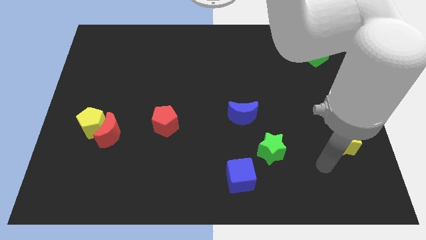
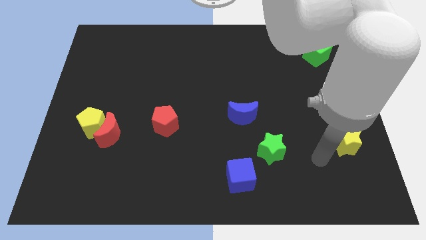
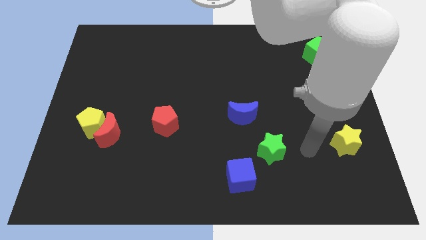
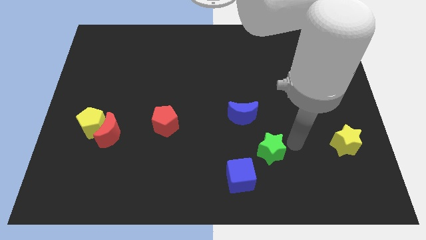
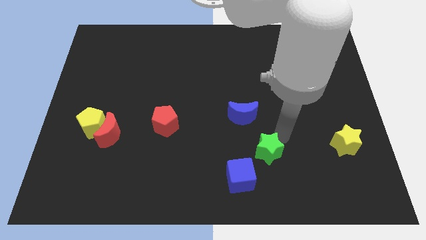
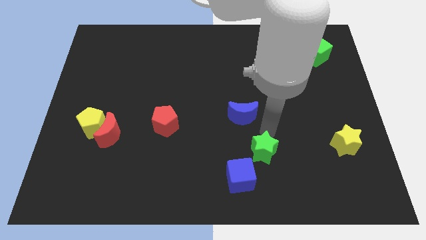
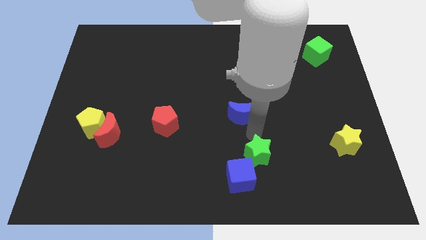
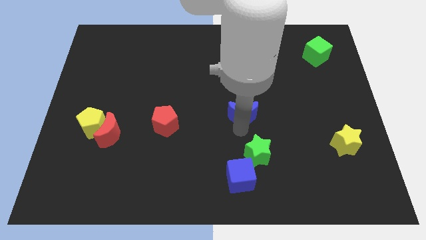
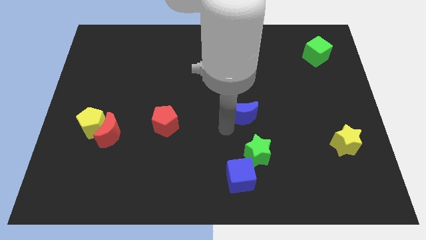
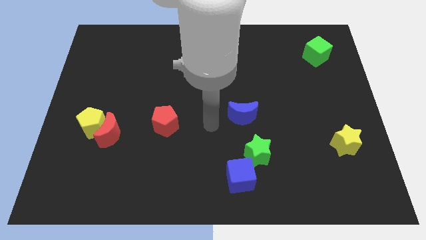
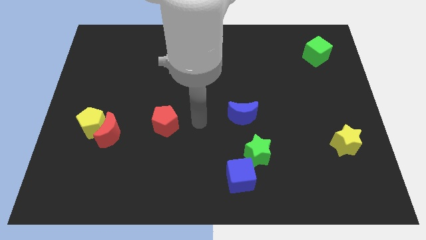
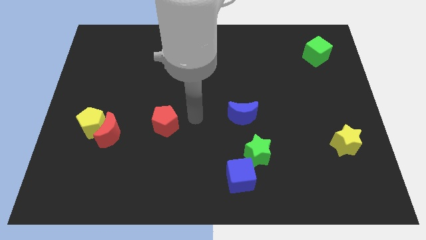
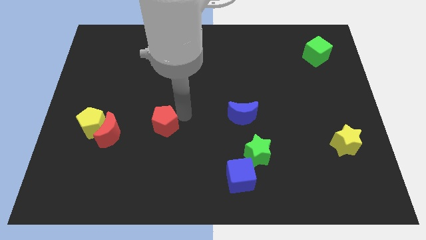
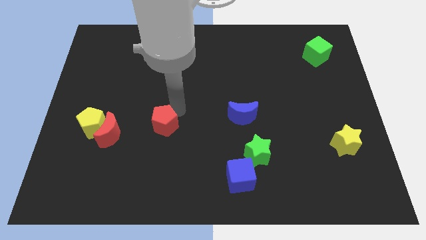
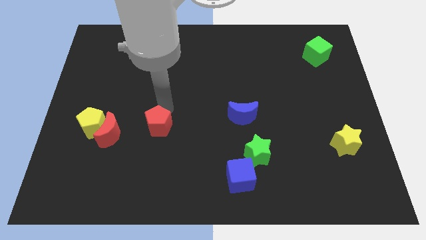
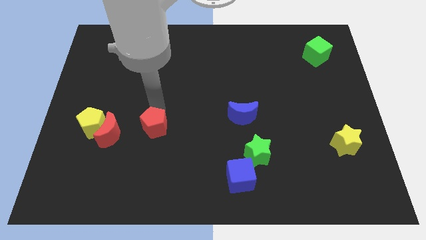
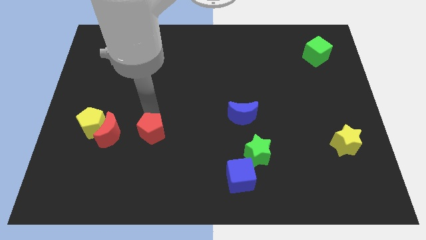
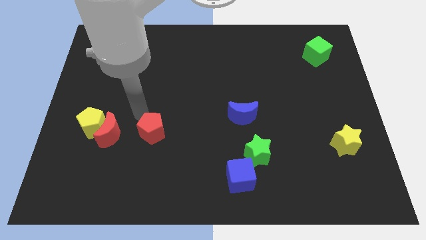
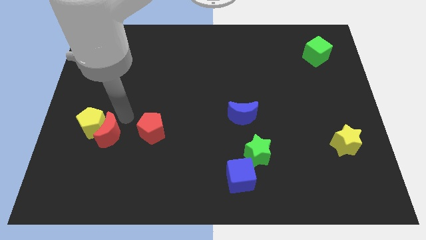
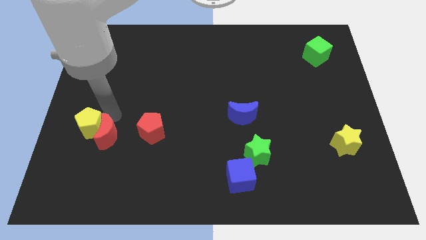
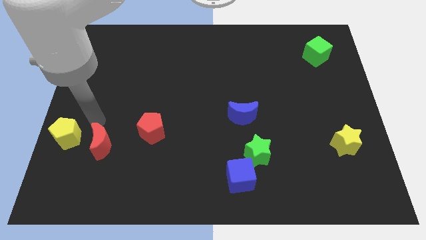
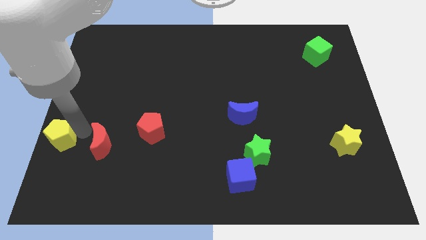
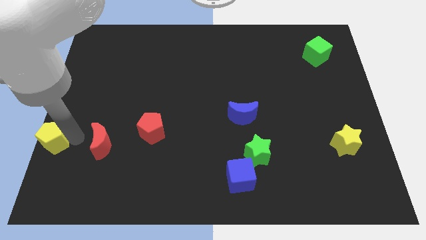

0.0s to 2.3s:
move the red moon away from the yellow pentagon

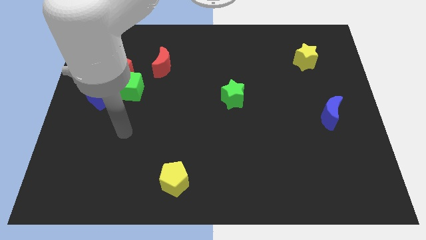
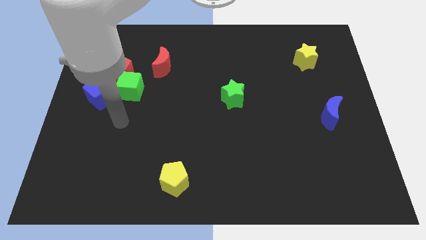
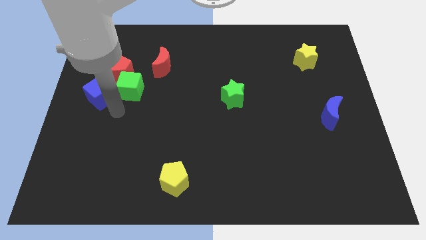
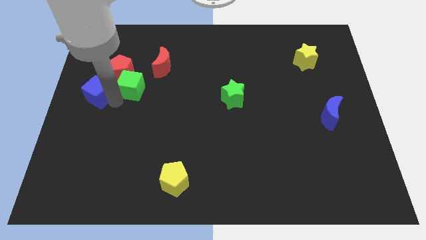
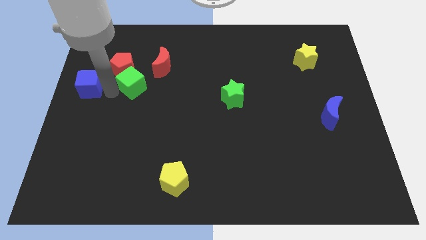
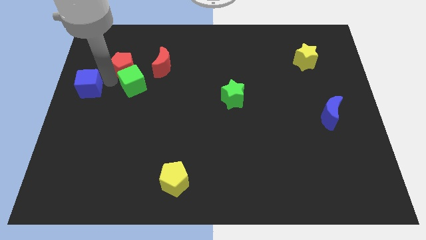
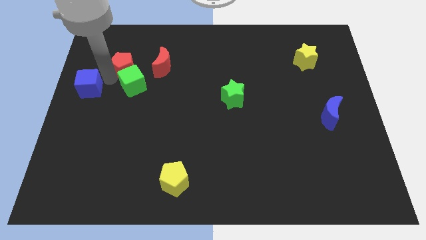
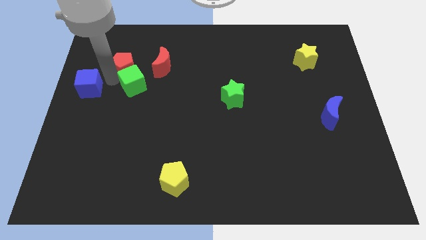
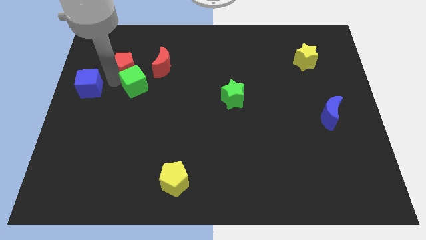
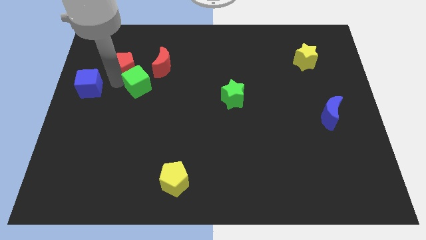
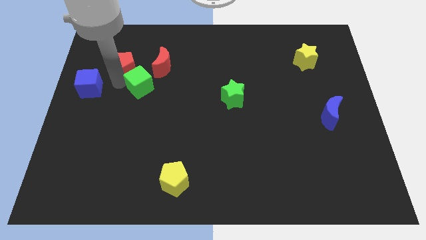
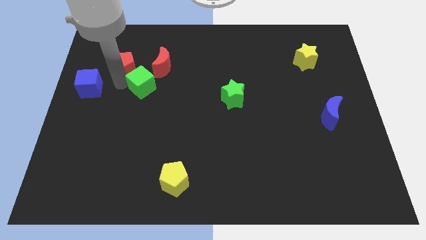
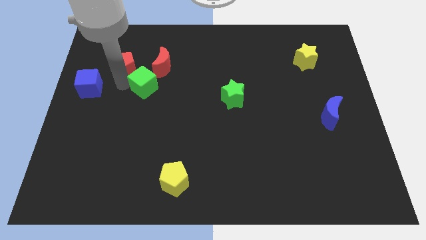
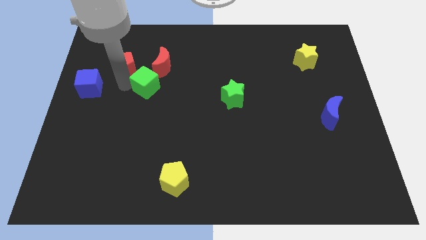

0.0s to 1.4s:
separate the green cube from the red pentagon and blue cube

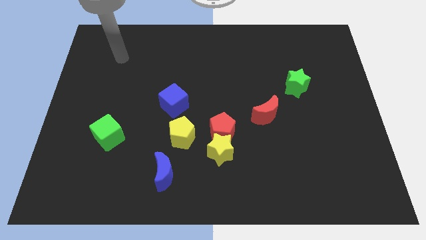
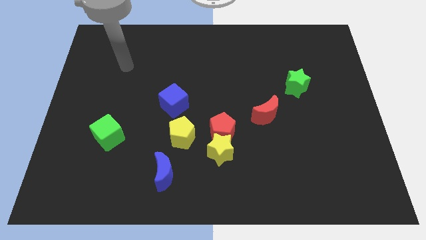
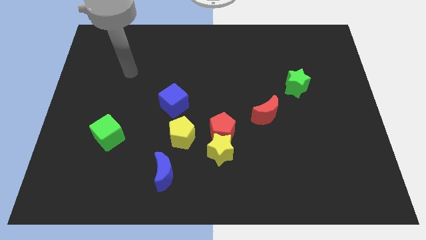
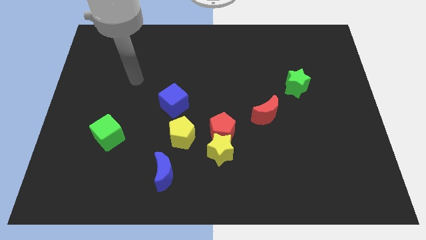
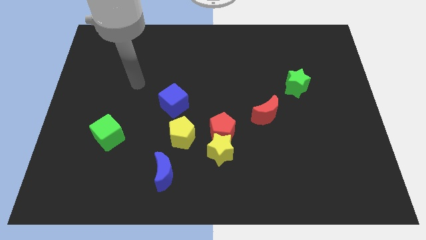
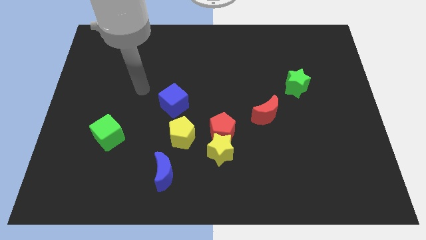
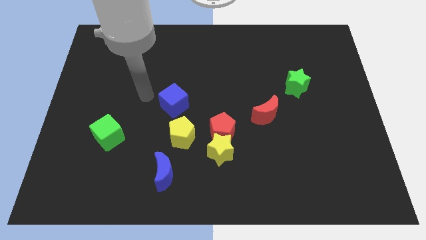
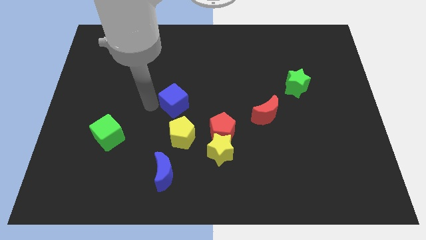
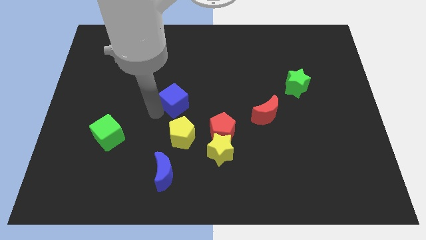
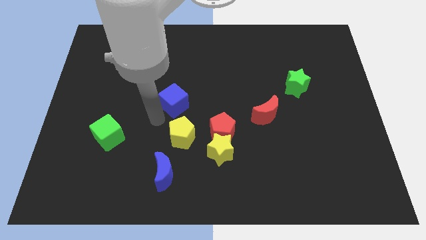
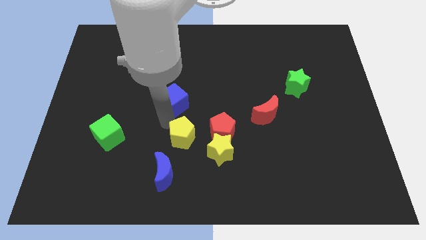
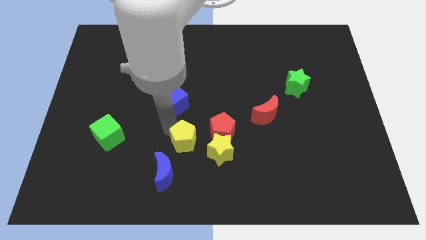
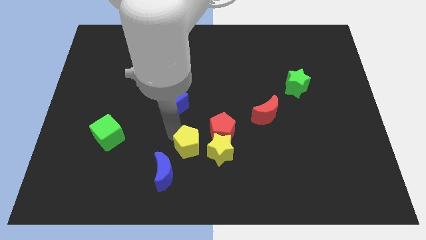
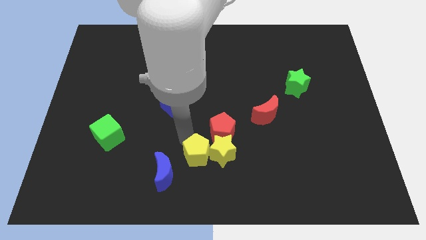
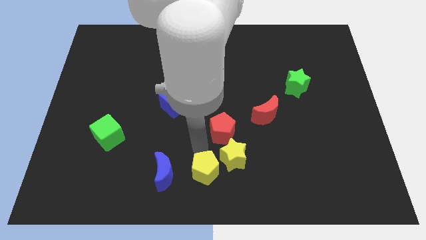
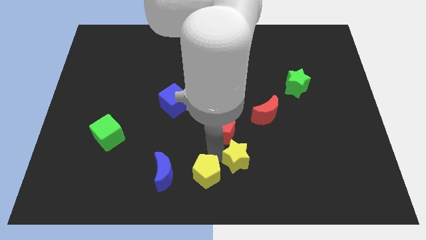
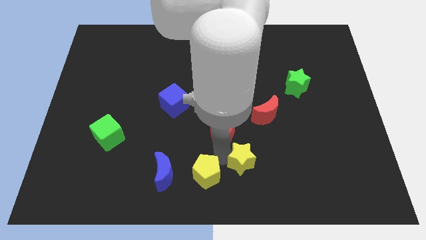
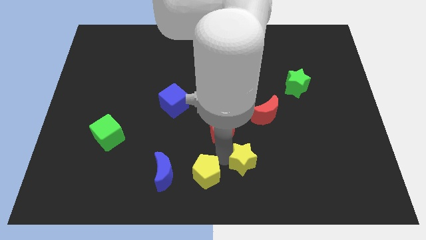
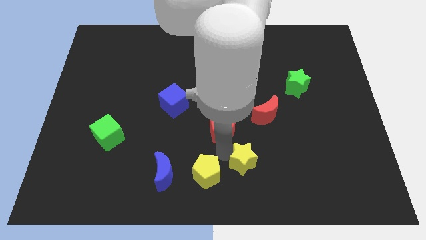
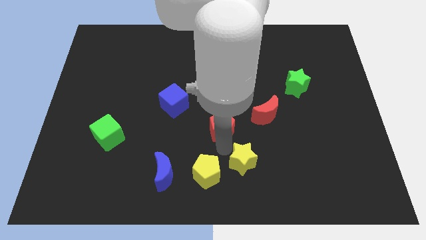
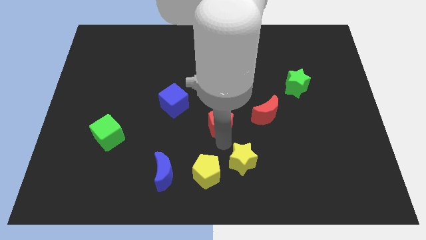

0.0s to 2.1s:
move the red pentagon away from the yellow star and yellow pentagon

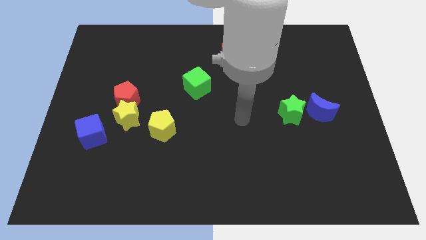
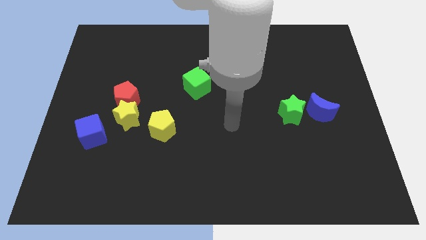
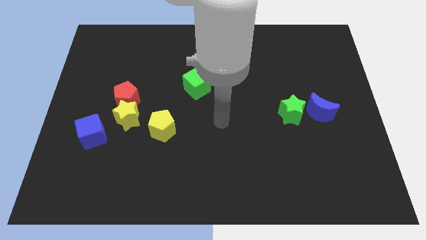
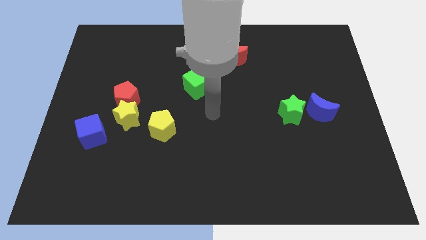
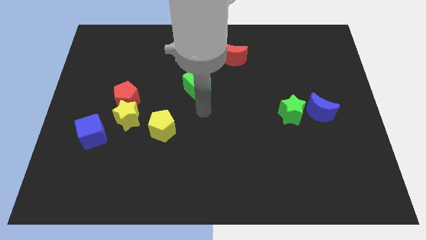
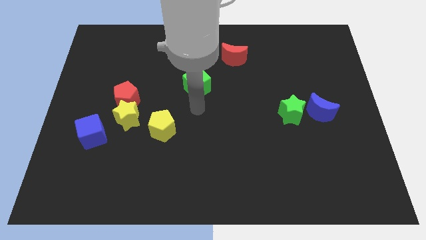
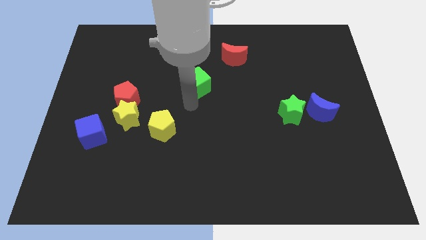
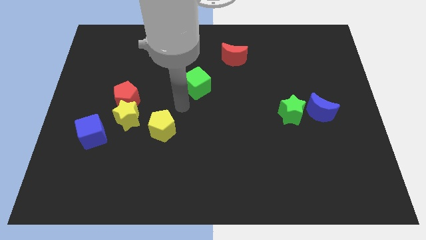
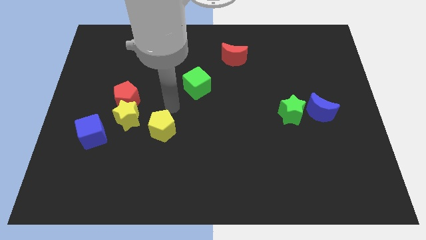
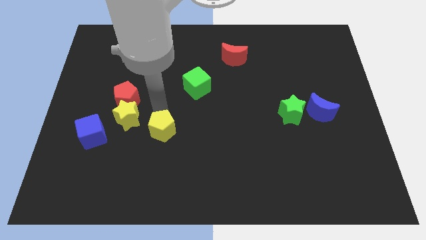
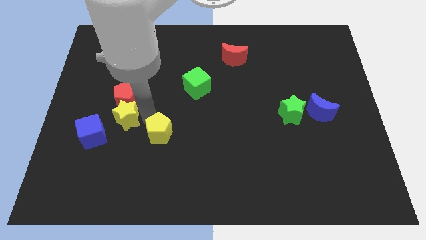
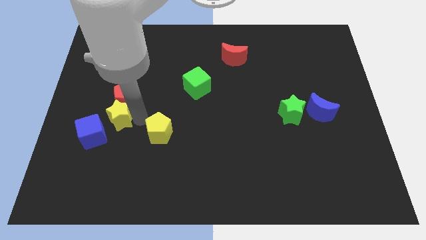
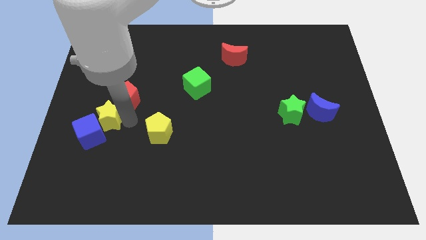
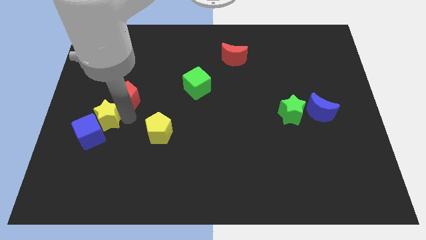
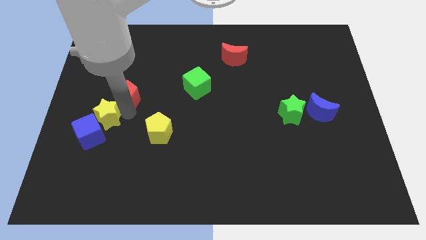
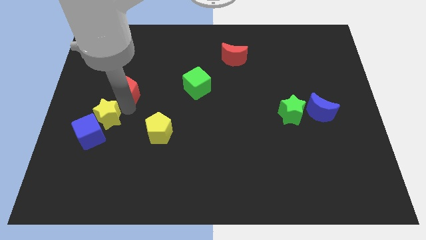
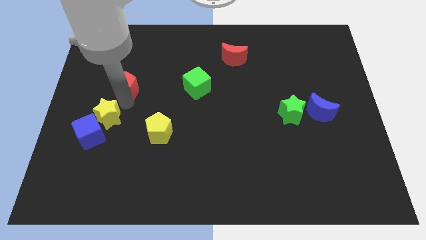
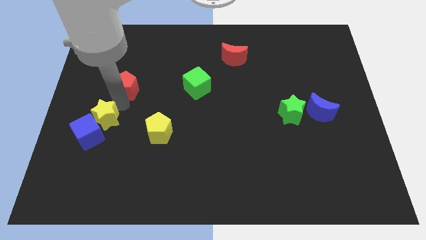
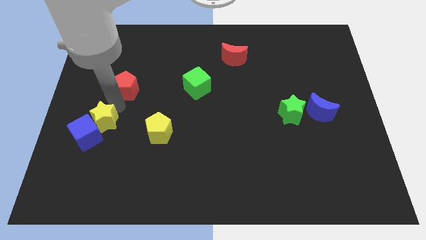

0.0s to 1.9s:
separate the red pentagon from the yellow star

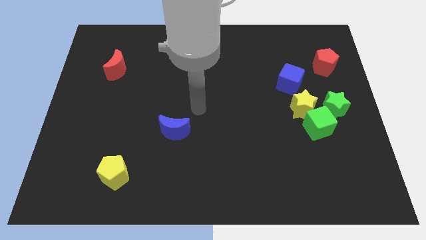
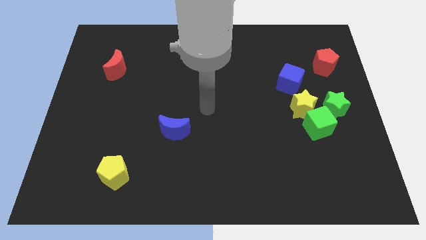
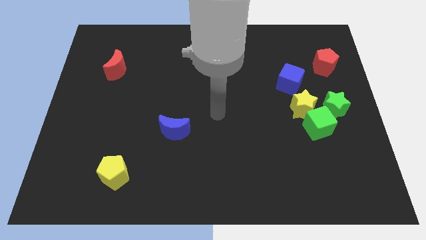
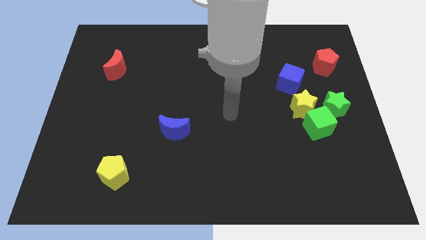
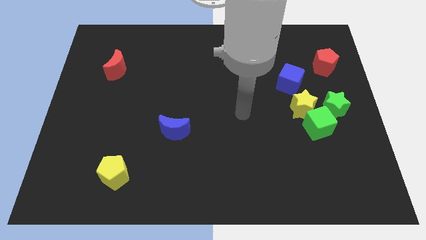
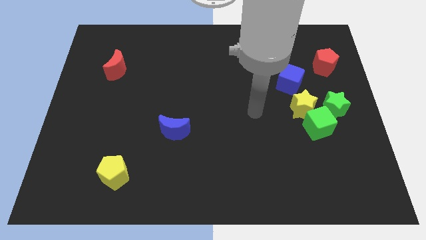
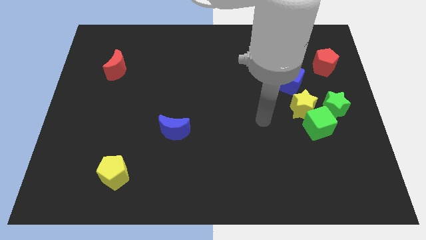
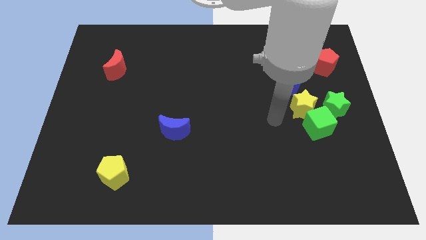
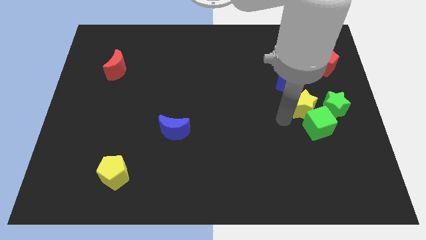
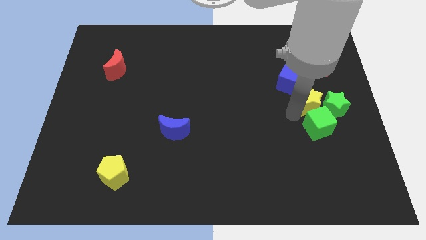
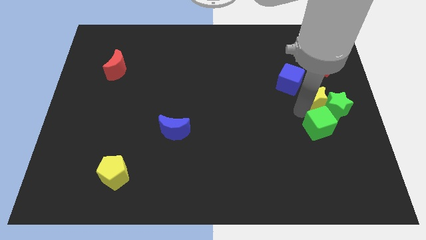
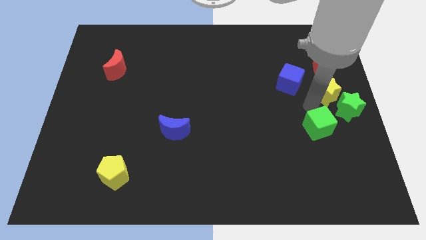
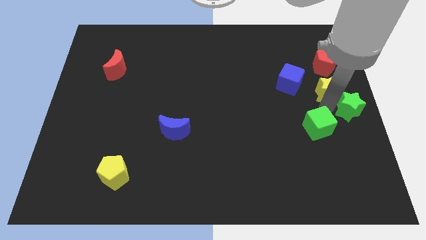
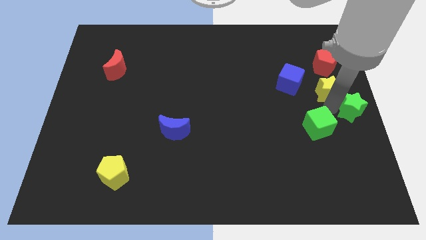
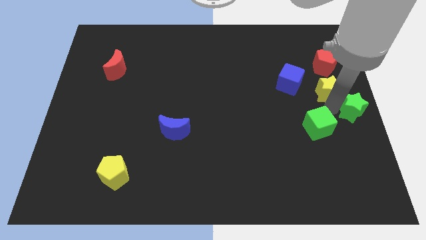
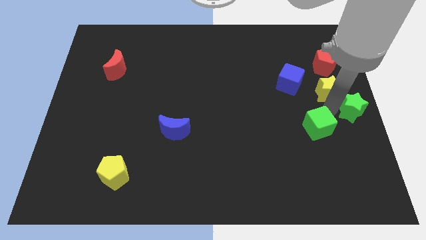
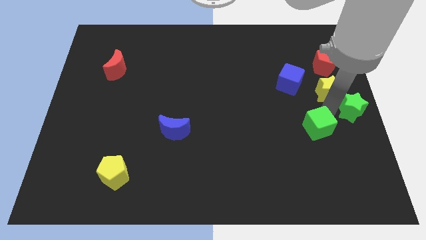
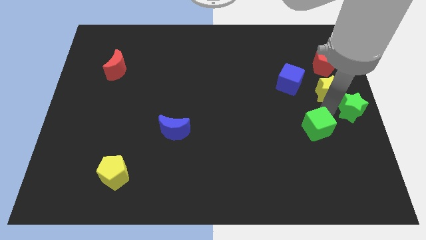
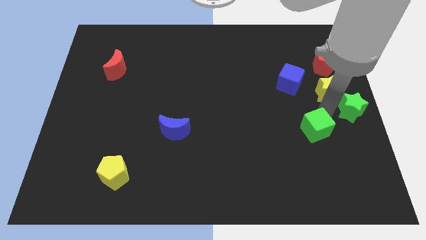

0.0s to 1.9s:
separate the green cube from the yellow star and green star
